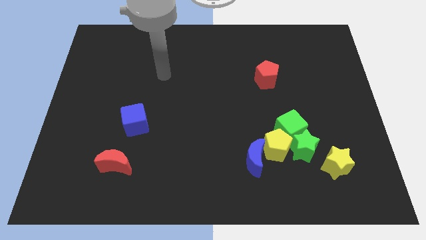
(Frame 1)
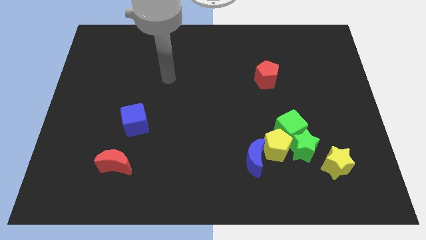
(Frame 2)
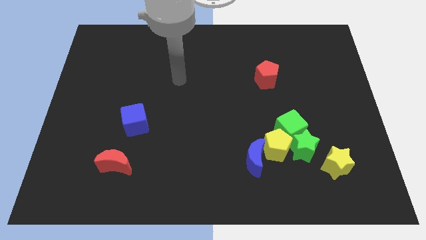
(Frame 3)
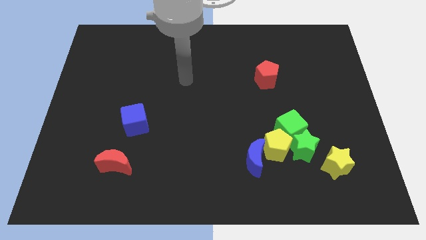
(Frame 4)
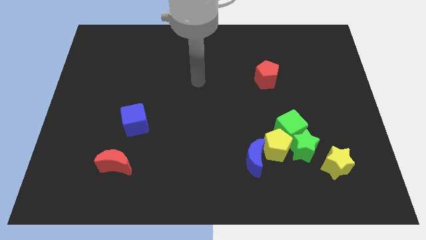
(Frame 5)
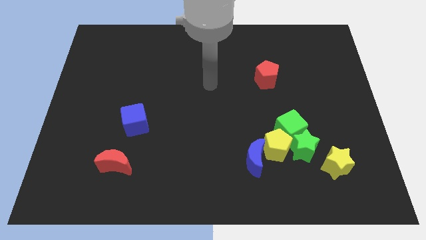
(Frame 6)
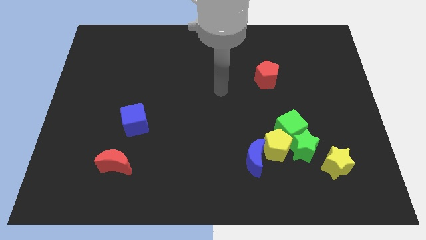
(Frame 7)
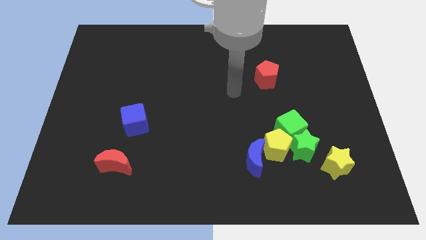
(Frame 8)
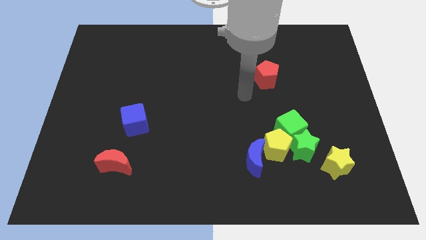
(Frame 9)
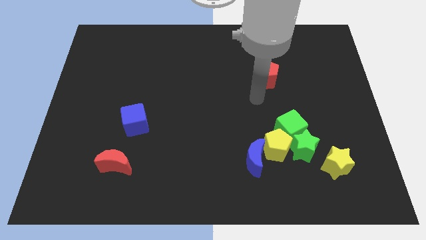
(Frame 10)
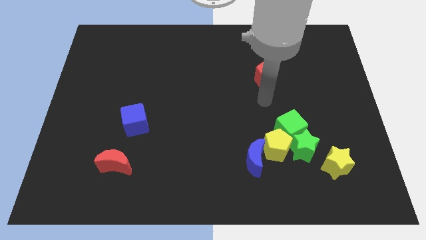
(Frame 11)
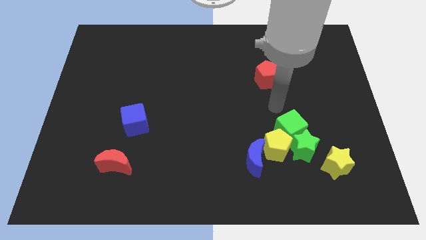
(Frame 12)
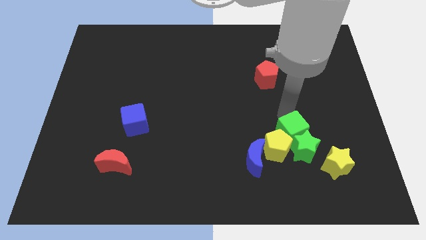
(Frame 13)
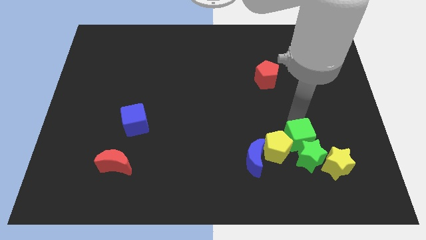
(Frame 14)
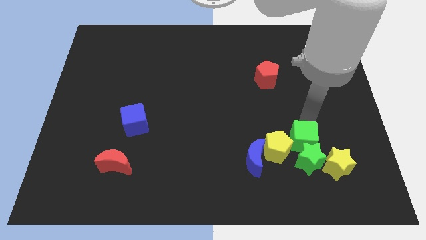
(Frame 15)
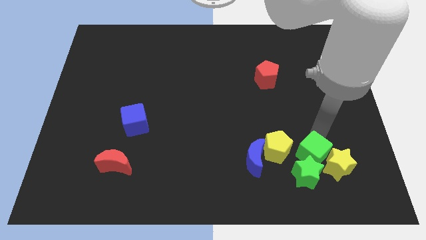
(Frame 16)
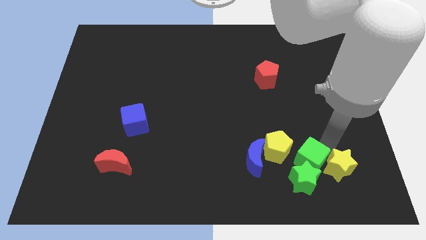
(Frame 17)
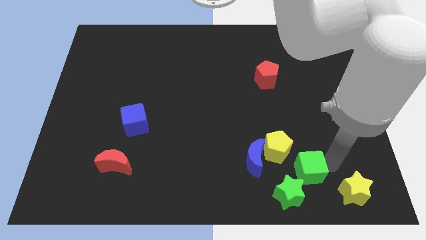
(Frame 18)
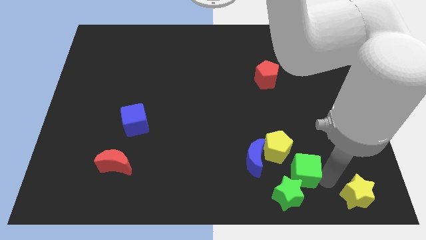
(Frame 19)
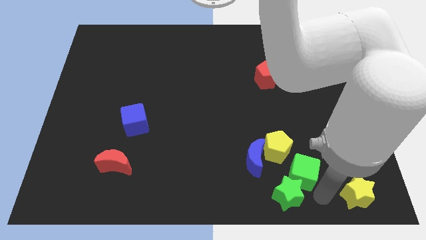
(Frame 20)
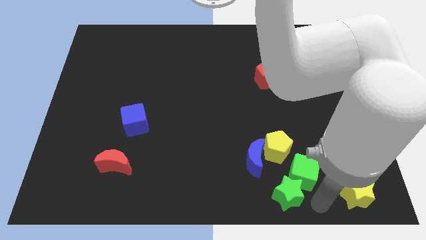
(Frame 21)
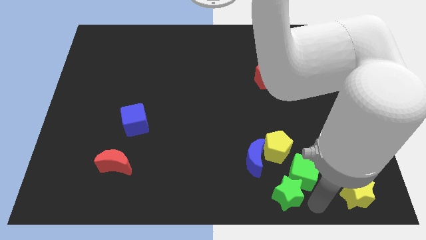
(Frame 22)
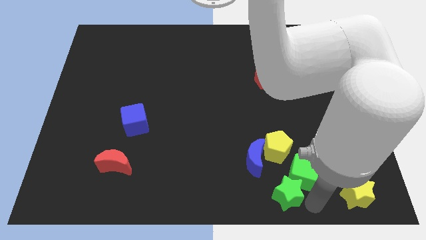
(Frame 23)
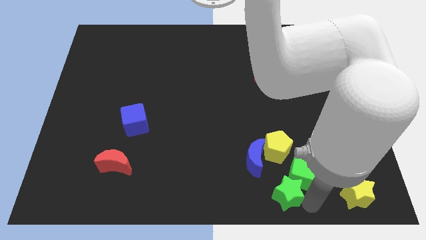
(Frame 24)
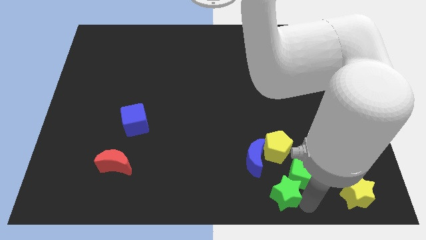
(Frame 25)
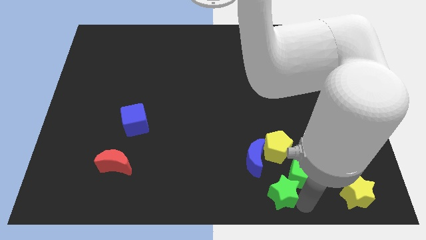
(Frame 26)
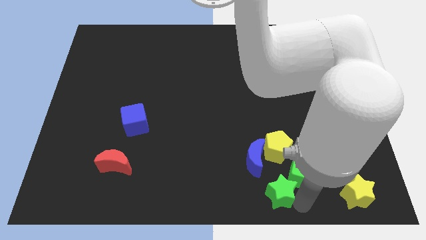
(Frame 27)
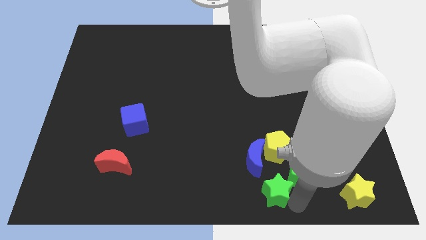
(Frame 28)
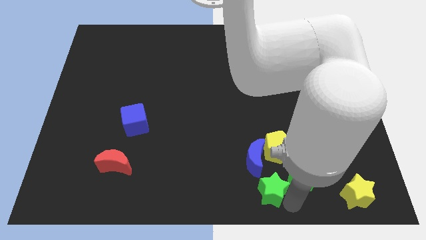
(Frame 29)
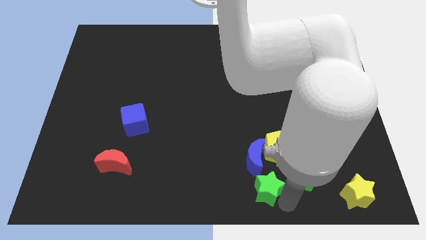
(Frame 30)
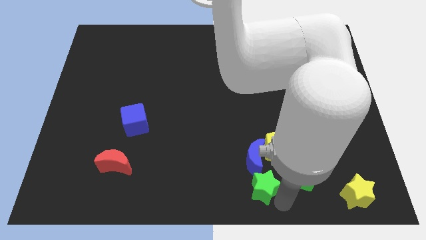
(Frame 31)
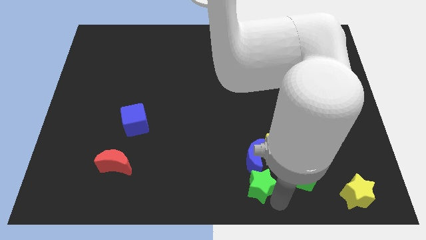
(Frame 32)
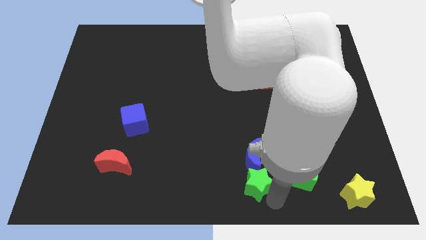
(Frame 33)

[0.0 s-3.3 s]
push the green star a little bit to the left

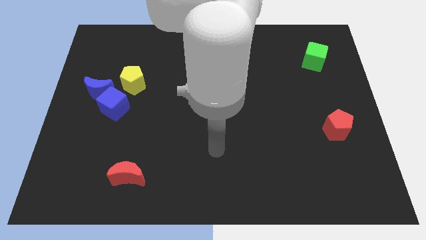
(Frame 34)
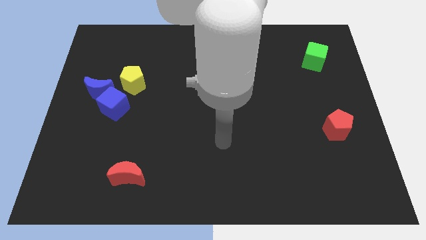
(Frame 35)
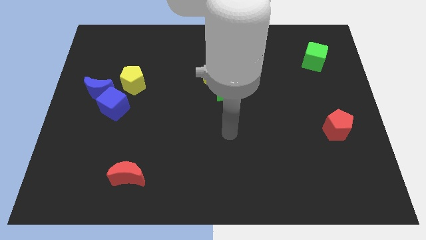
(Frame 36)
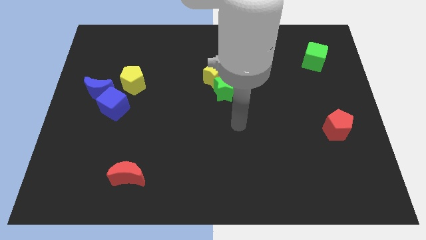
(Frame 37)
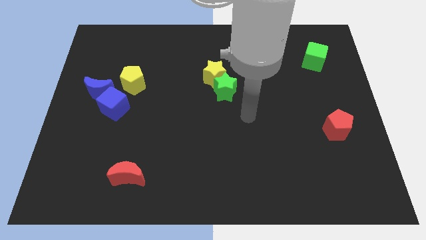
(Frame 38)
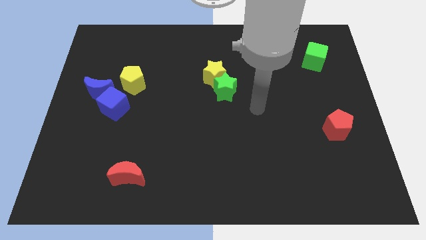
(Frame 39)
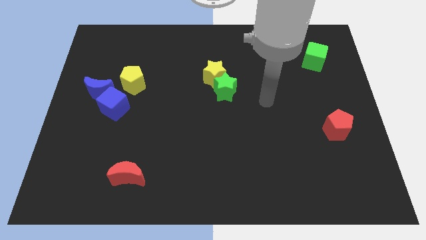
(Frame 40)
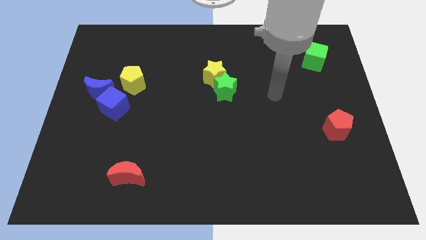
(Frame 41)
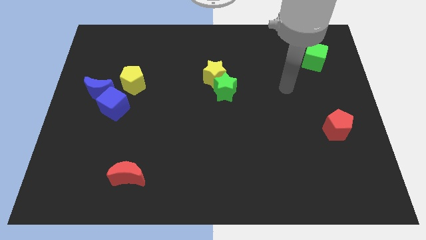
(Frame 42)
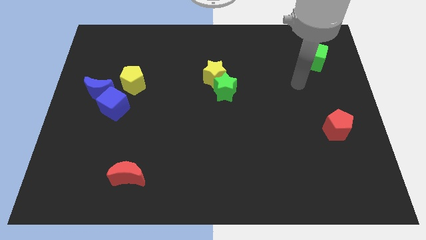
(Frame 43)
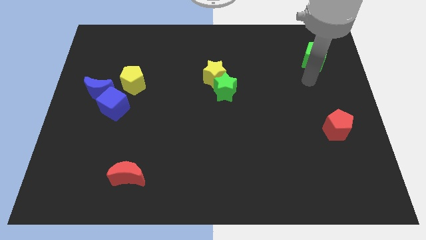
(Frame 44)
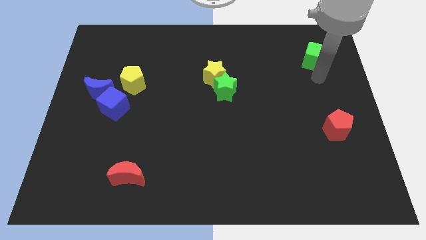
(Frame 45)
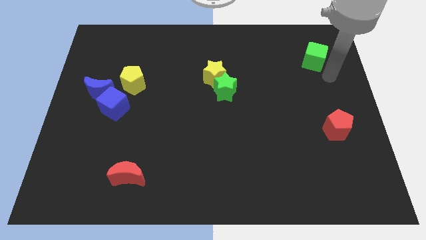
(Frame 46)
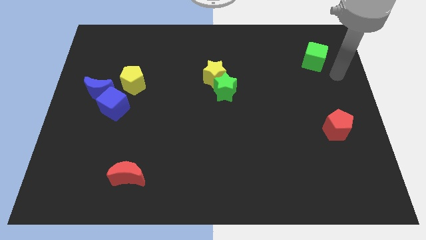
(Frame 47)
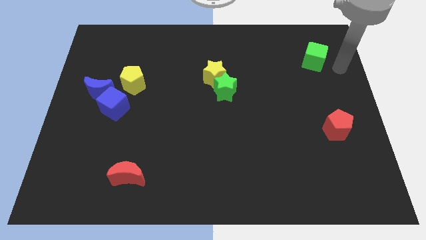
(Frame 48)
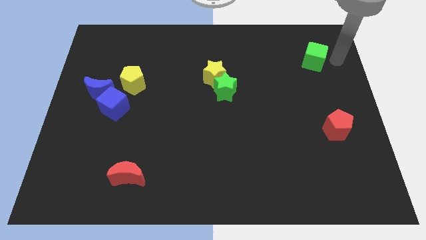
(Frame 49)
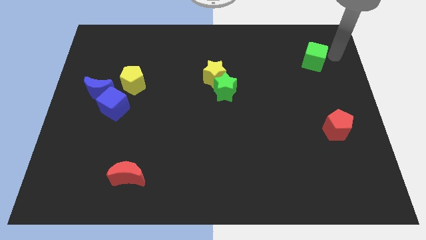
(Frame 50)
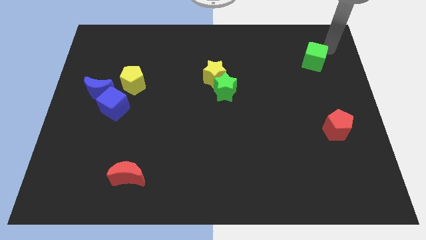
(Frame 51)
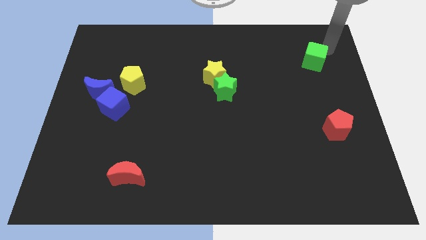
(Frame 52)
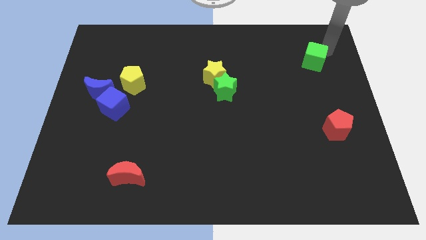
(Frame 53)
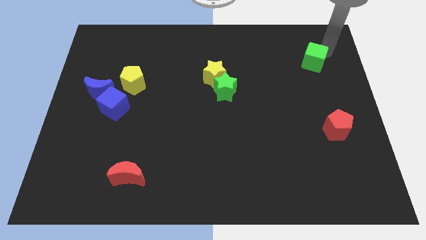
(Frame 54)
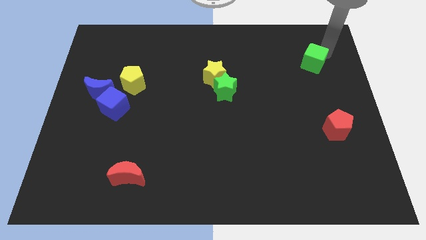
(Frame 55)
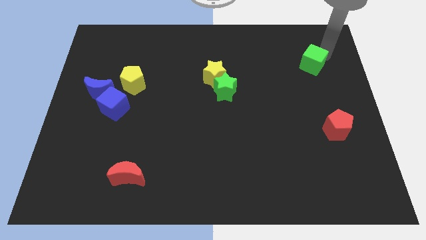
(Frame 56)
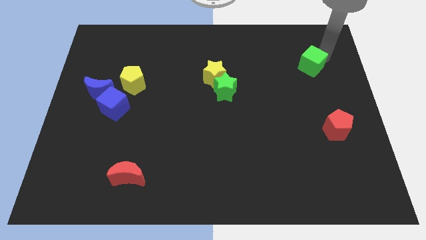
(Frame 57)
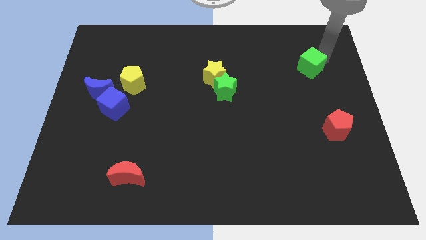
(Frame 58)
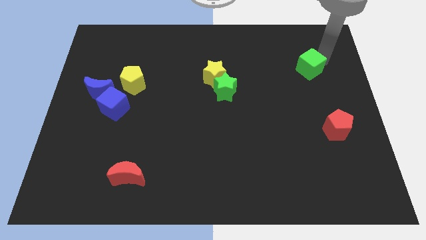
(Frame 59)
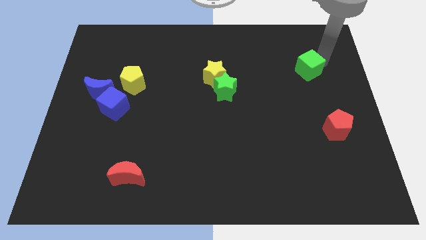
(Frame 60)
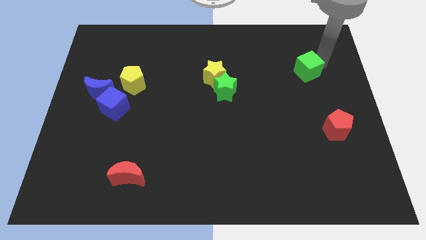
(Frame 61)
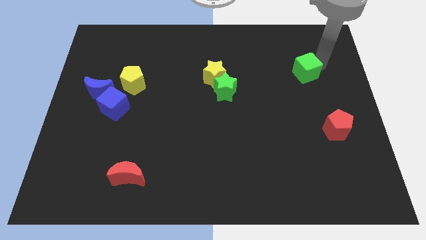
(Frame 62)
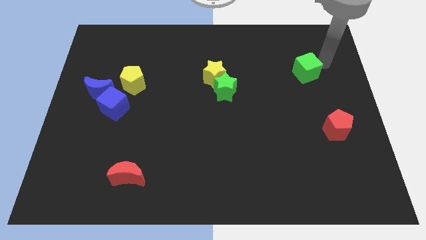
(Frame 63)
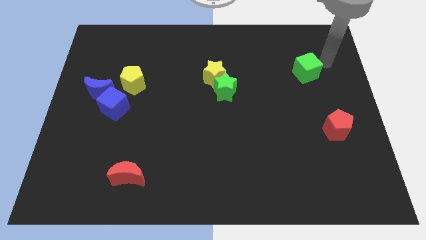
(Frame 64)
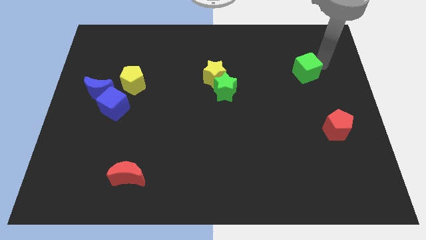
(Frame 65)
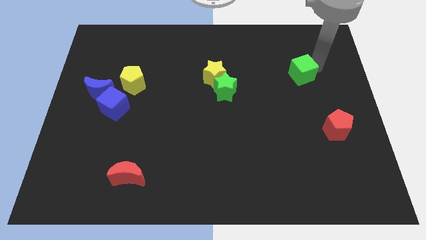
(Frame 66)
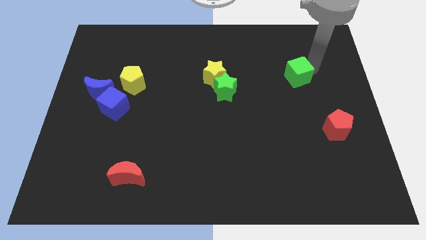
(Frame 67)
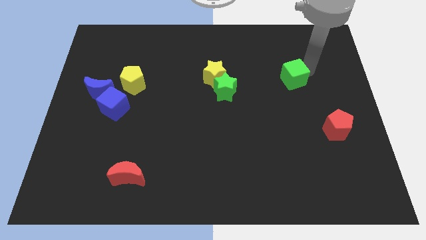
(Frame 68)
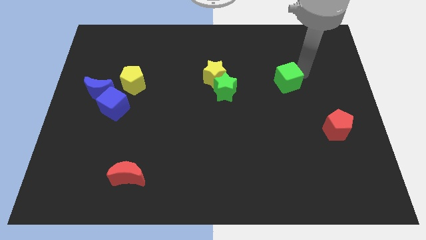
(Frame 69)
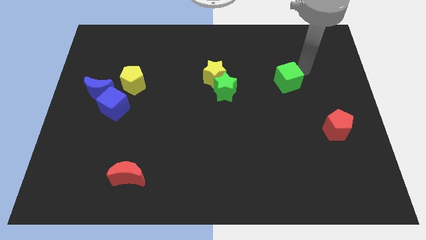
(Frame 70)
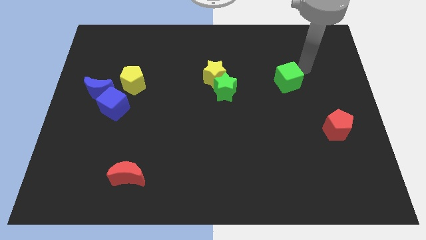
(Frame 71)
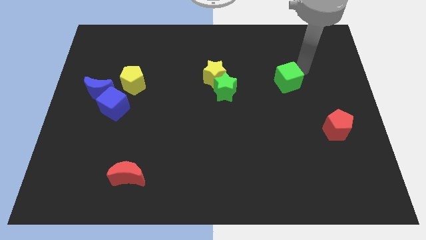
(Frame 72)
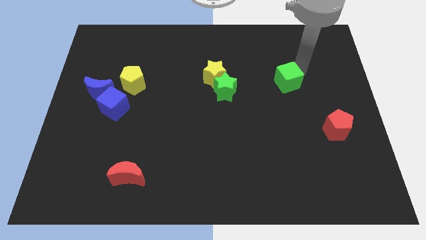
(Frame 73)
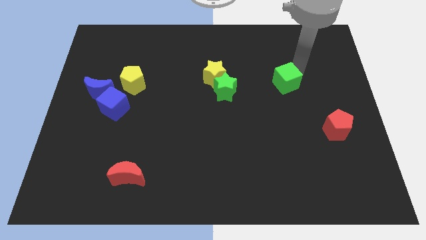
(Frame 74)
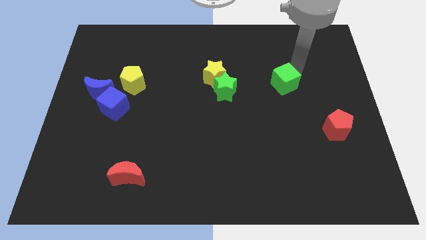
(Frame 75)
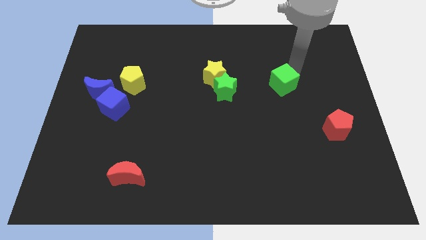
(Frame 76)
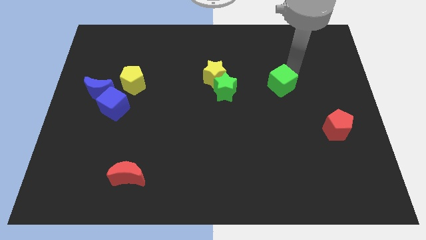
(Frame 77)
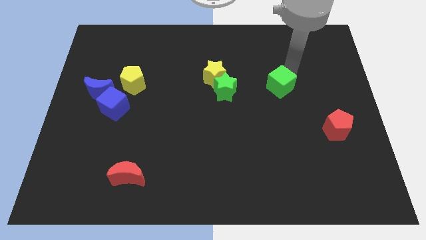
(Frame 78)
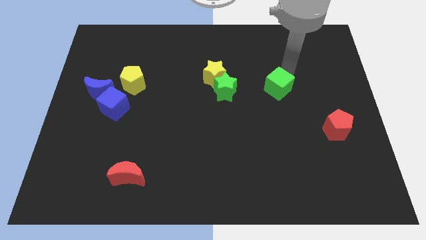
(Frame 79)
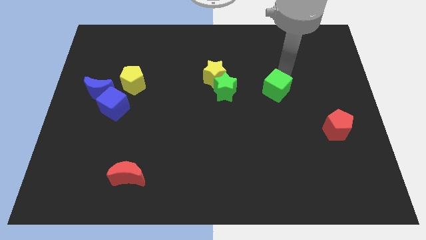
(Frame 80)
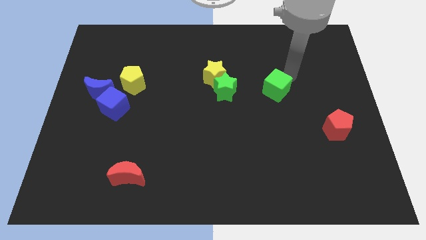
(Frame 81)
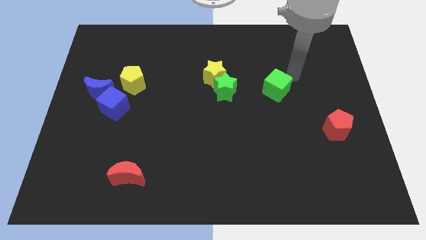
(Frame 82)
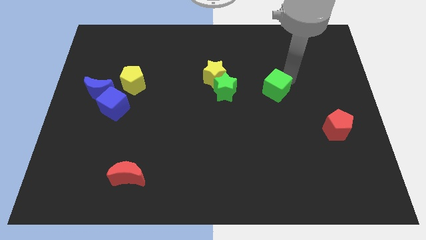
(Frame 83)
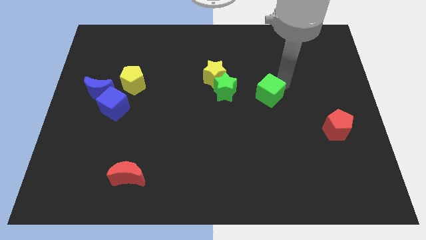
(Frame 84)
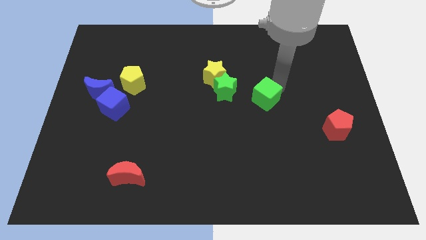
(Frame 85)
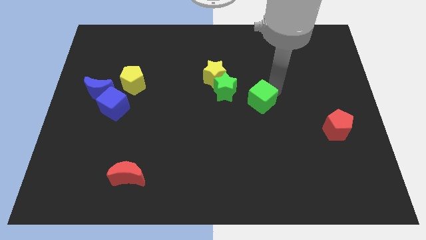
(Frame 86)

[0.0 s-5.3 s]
slide the green cube diagonally down and left
